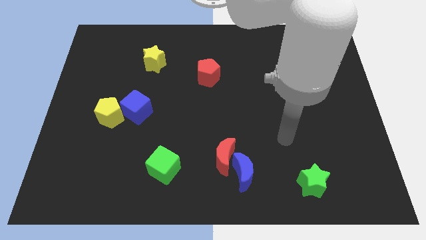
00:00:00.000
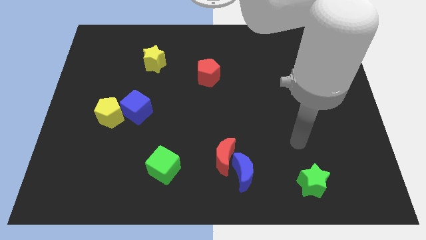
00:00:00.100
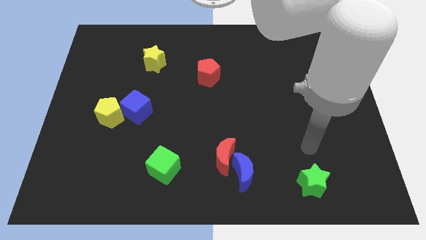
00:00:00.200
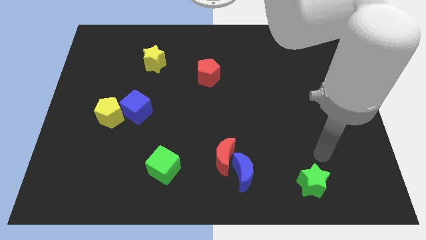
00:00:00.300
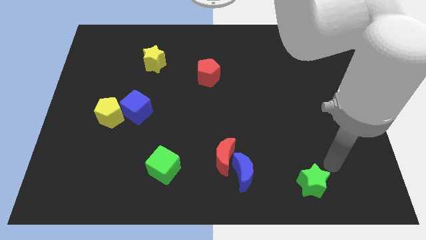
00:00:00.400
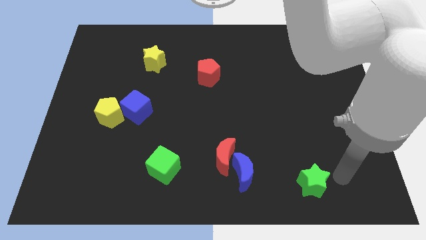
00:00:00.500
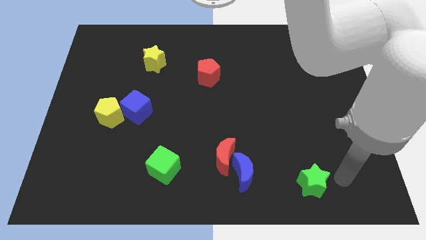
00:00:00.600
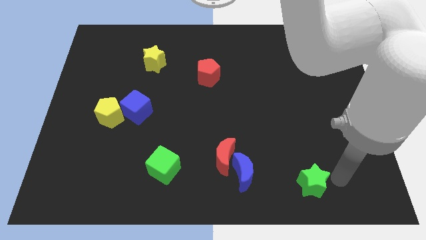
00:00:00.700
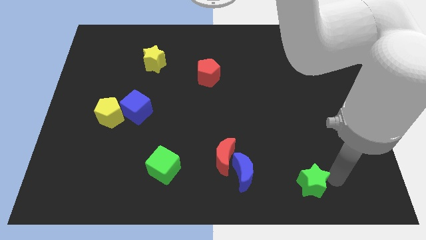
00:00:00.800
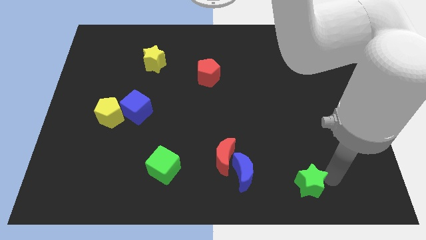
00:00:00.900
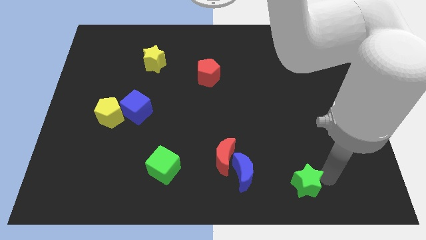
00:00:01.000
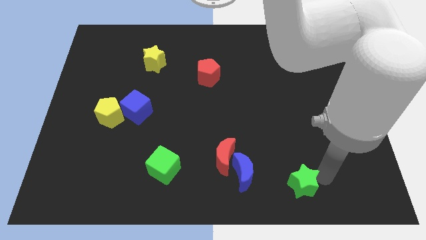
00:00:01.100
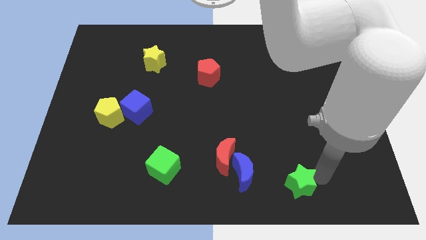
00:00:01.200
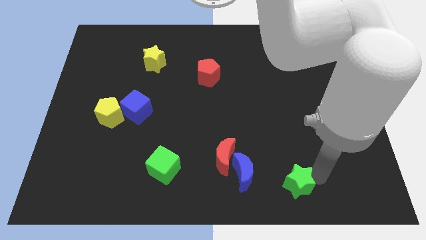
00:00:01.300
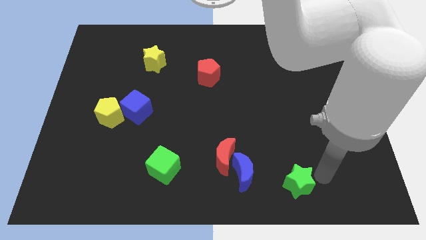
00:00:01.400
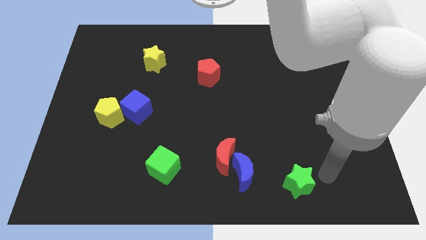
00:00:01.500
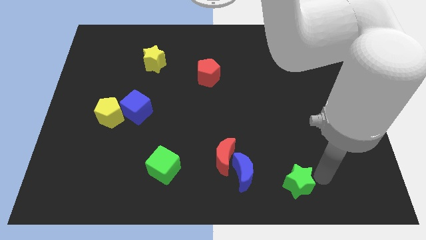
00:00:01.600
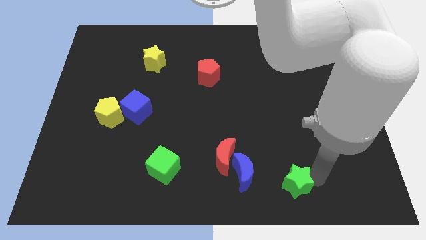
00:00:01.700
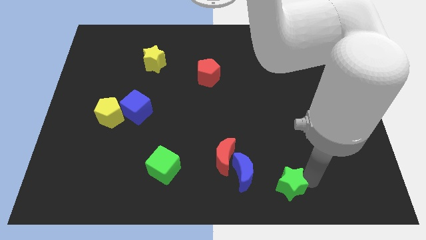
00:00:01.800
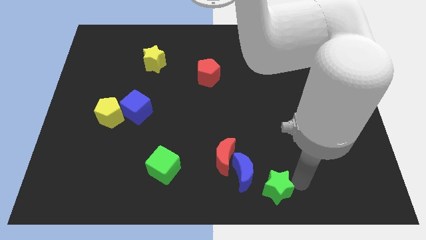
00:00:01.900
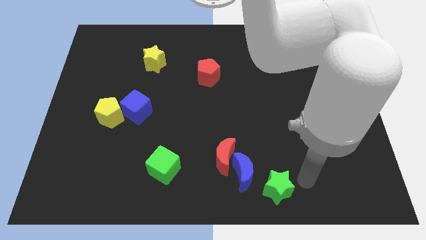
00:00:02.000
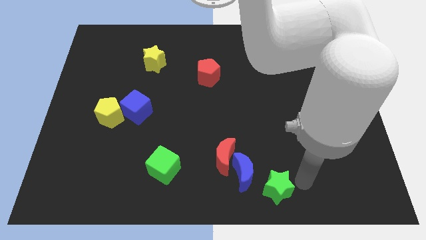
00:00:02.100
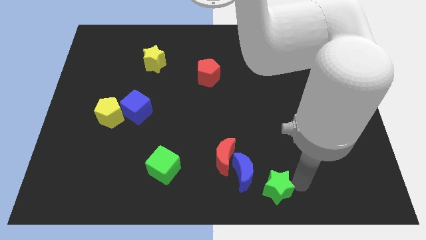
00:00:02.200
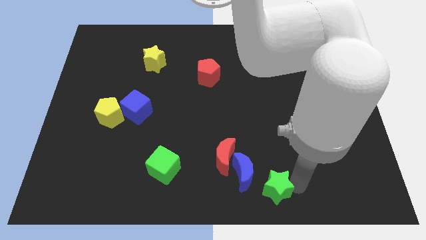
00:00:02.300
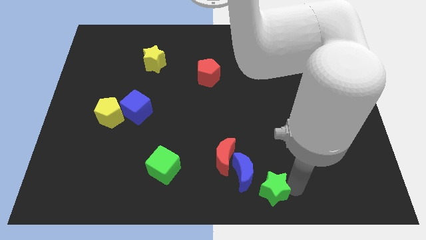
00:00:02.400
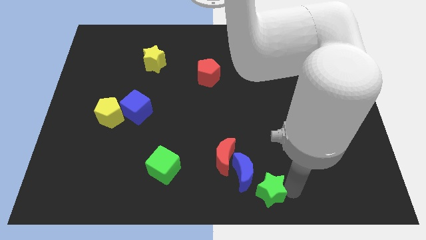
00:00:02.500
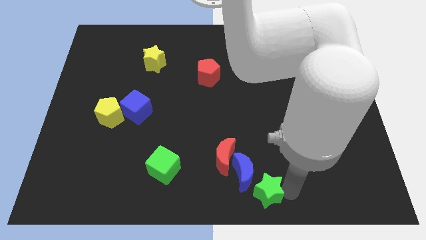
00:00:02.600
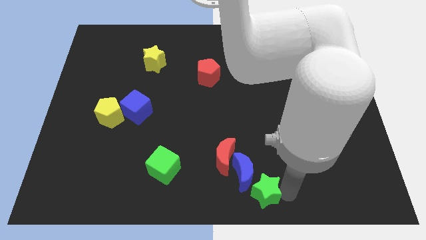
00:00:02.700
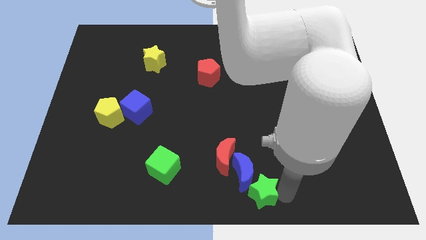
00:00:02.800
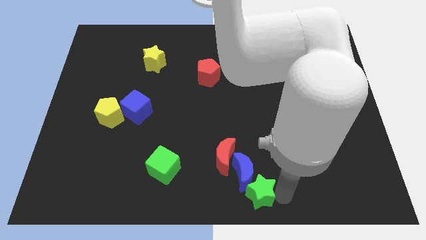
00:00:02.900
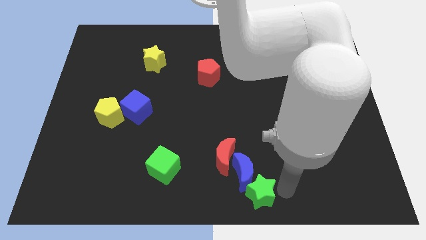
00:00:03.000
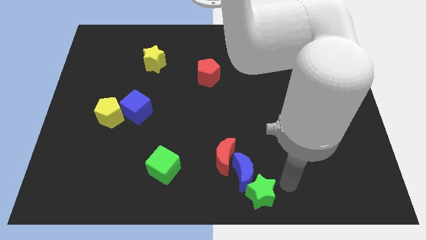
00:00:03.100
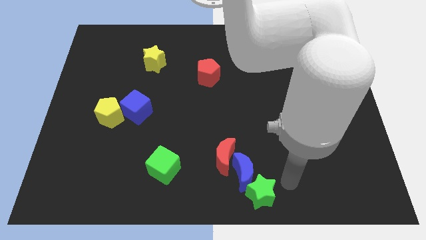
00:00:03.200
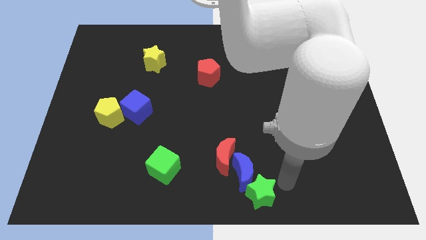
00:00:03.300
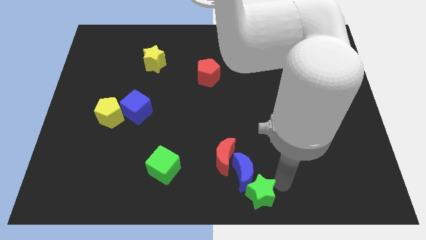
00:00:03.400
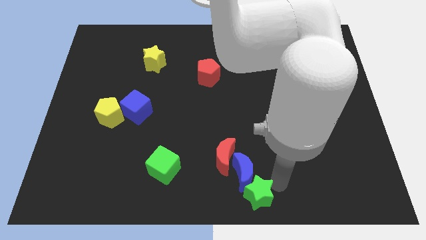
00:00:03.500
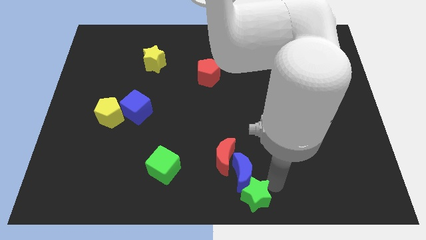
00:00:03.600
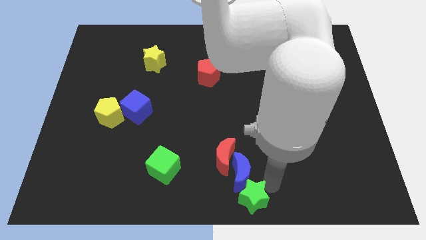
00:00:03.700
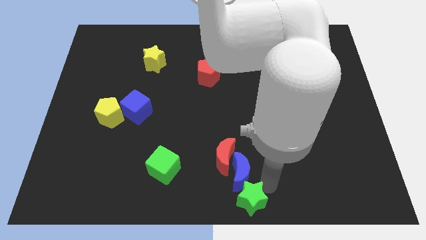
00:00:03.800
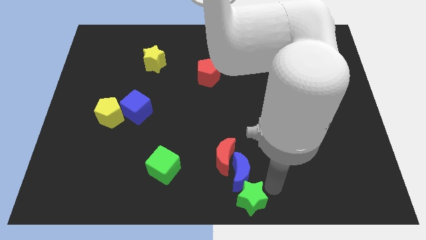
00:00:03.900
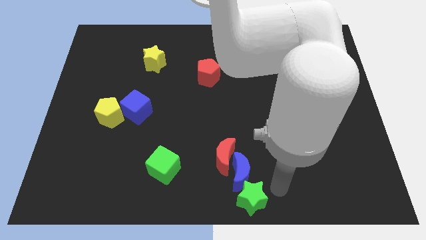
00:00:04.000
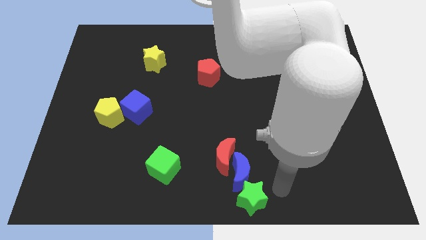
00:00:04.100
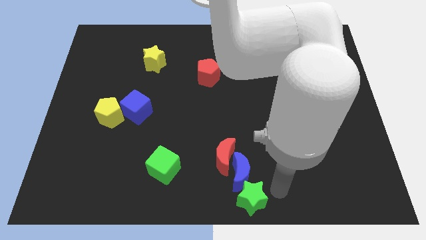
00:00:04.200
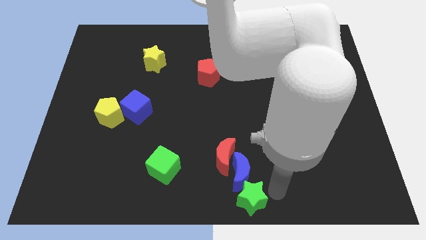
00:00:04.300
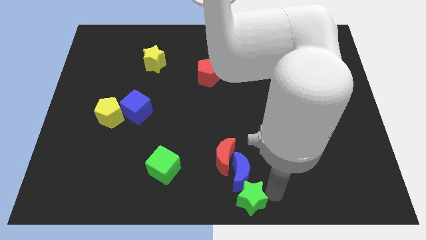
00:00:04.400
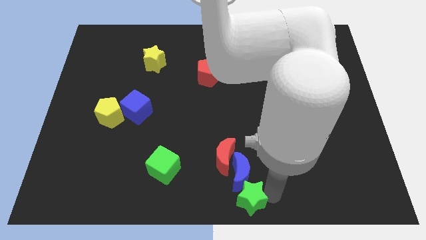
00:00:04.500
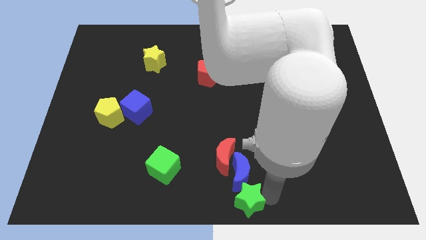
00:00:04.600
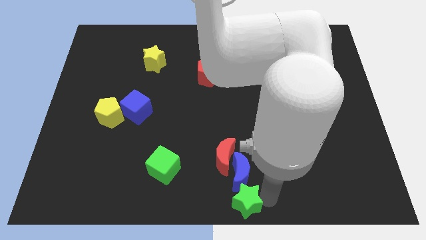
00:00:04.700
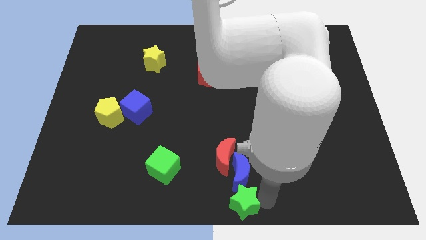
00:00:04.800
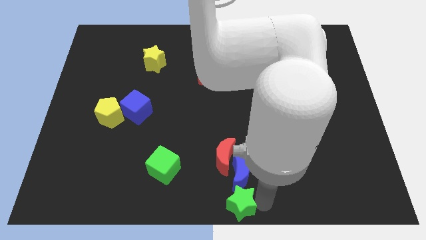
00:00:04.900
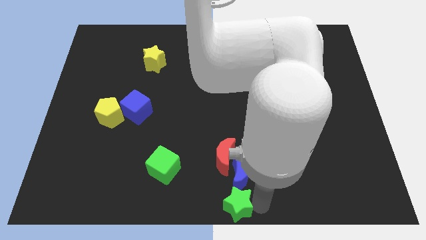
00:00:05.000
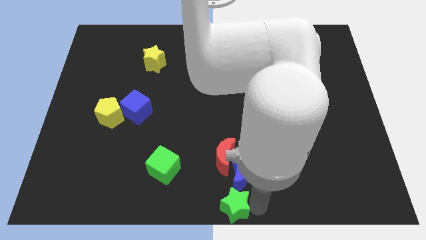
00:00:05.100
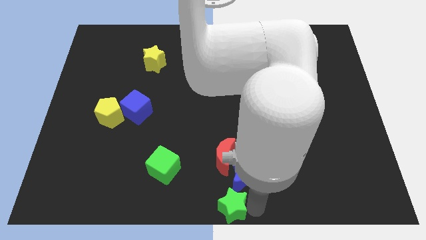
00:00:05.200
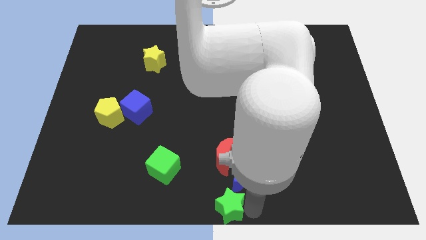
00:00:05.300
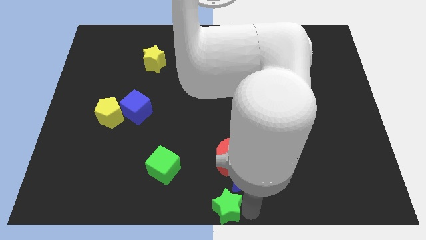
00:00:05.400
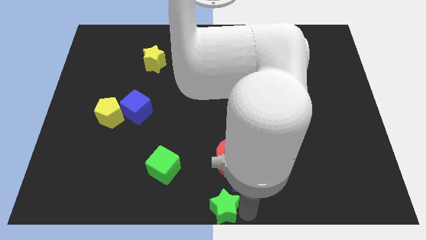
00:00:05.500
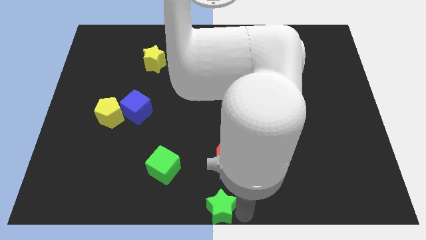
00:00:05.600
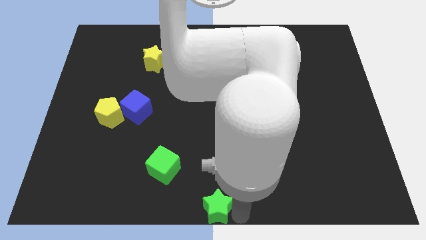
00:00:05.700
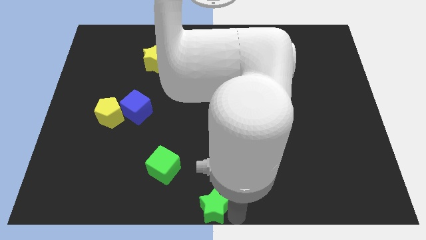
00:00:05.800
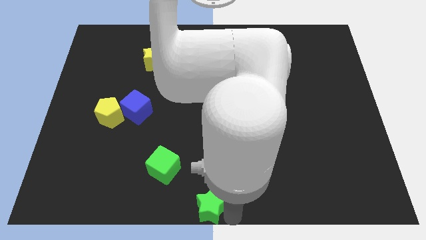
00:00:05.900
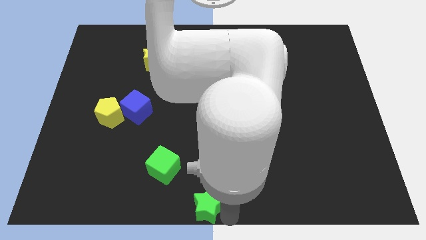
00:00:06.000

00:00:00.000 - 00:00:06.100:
push the green star to the left

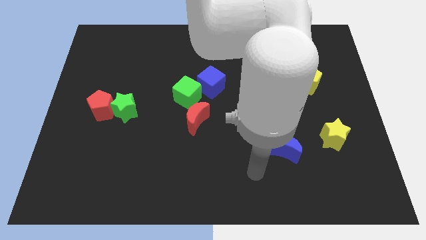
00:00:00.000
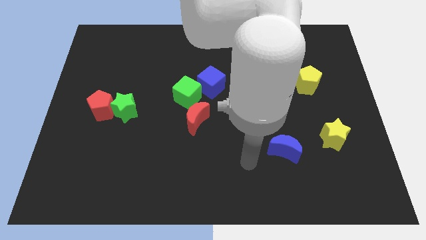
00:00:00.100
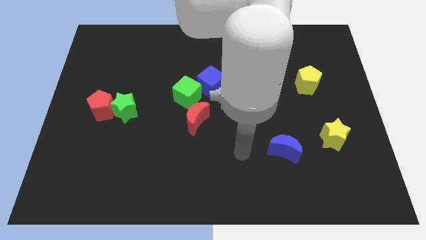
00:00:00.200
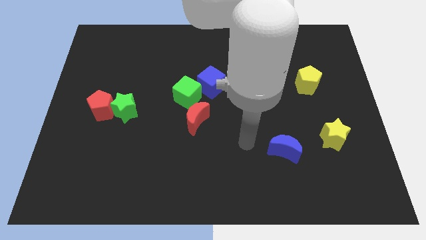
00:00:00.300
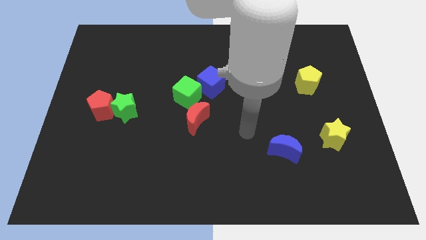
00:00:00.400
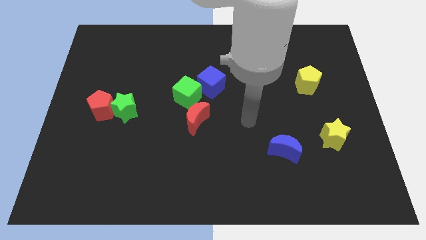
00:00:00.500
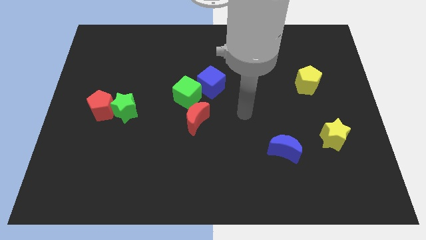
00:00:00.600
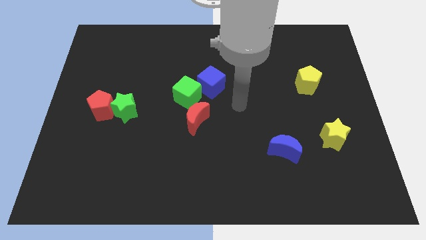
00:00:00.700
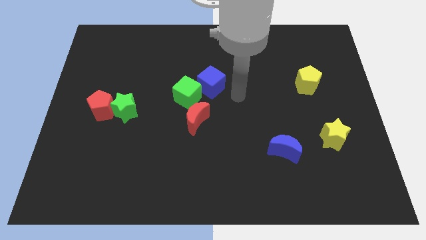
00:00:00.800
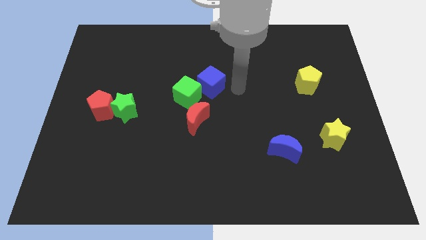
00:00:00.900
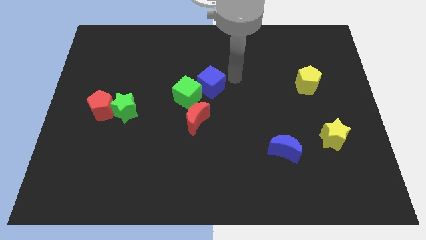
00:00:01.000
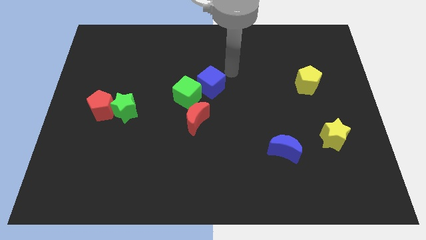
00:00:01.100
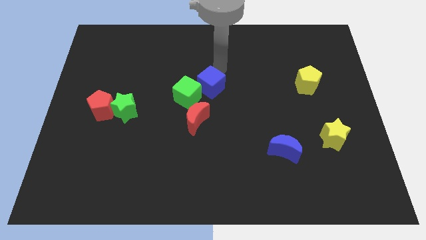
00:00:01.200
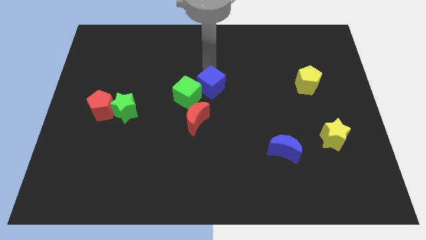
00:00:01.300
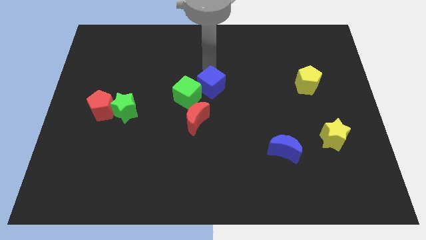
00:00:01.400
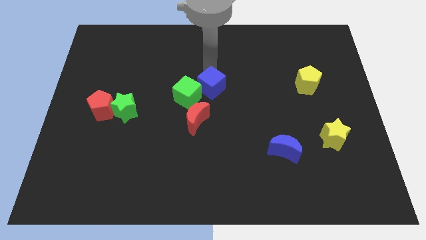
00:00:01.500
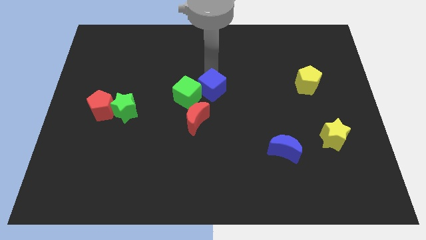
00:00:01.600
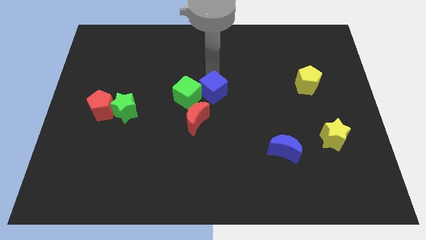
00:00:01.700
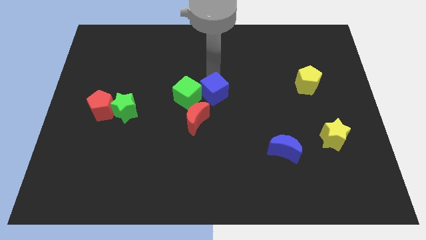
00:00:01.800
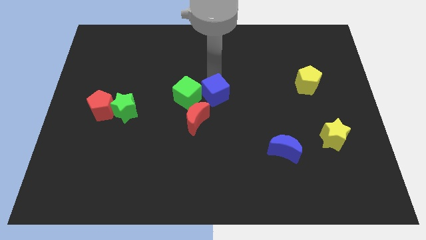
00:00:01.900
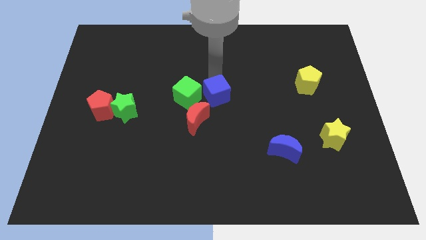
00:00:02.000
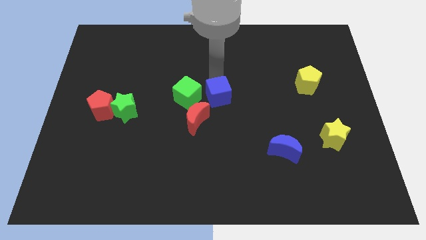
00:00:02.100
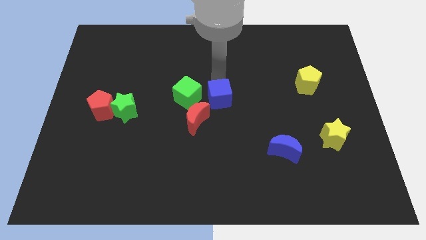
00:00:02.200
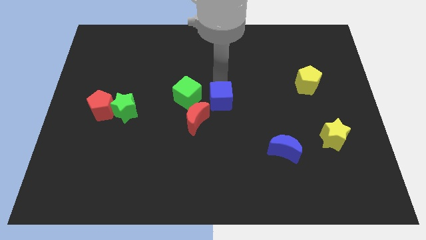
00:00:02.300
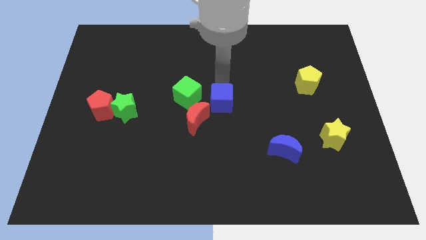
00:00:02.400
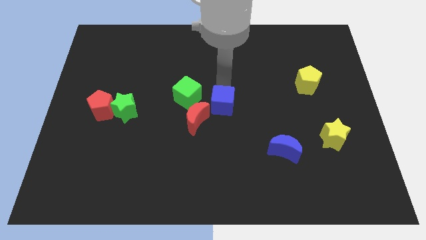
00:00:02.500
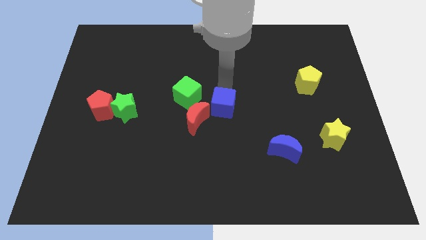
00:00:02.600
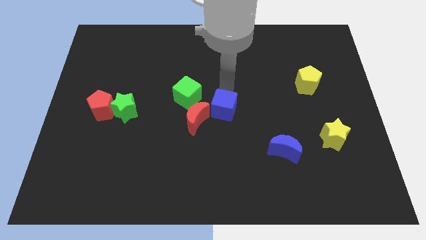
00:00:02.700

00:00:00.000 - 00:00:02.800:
slightly move the blue cube downwards
